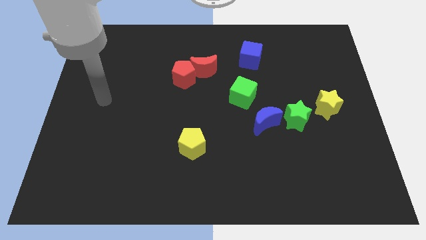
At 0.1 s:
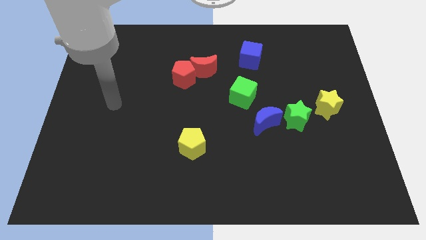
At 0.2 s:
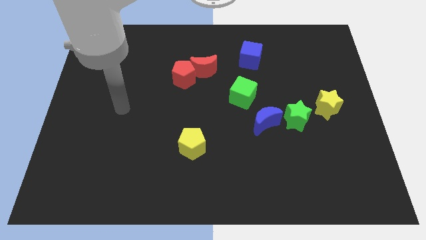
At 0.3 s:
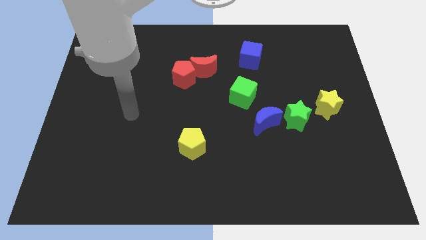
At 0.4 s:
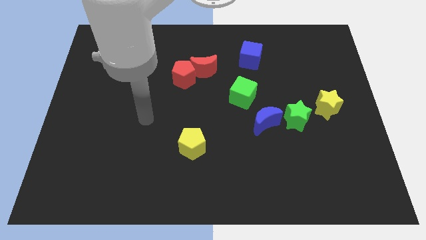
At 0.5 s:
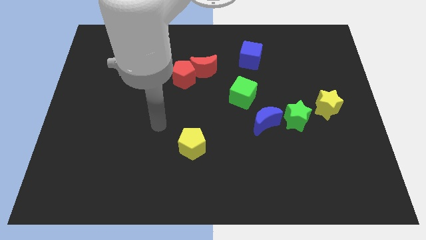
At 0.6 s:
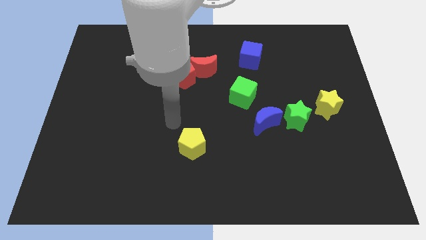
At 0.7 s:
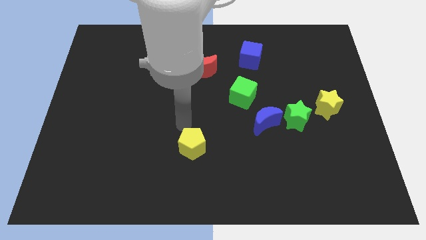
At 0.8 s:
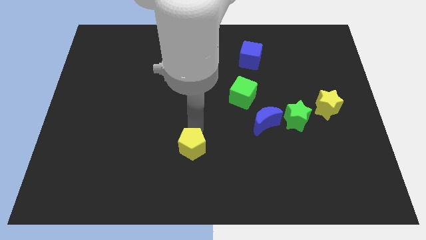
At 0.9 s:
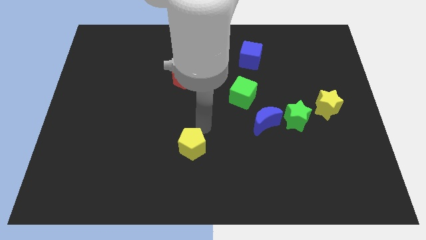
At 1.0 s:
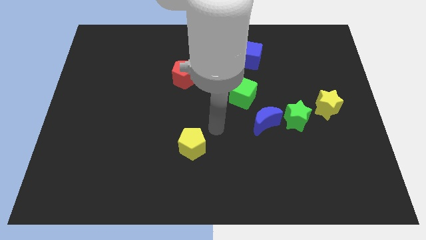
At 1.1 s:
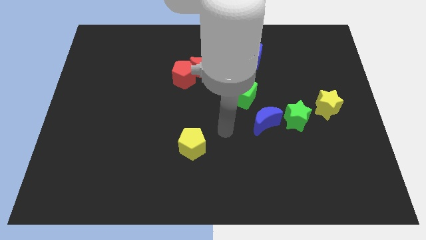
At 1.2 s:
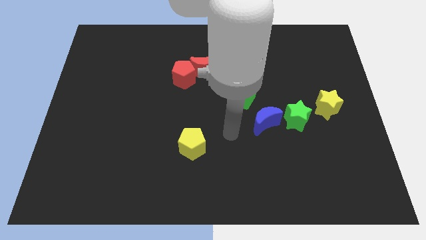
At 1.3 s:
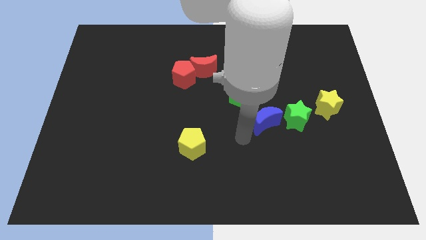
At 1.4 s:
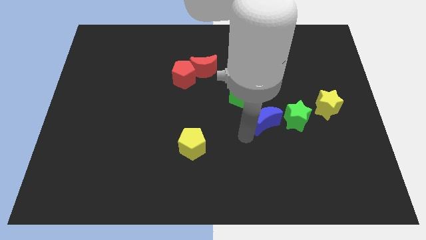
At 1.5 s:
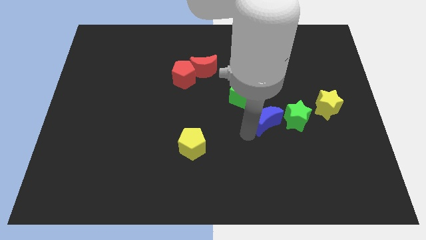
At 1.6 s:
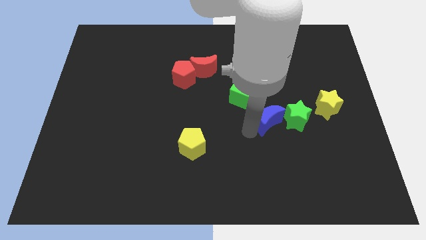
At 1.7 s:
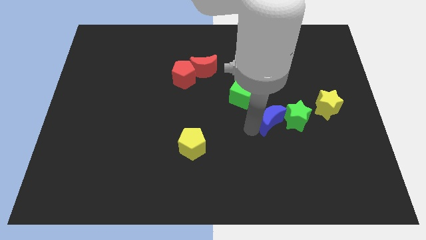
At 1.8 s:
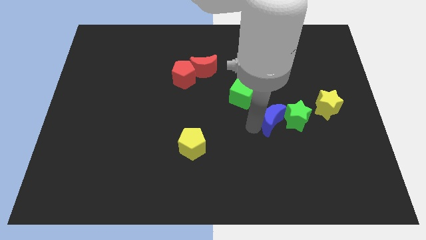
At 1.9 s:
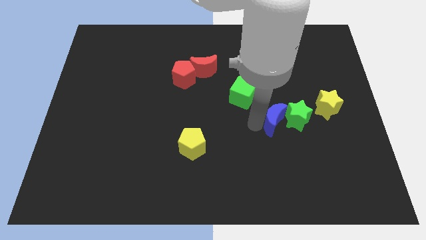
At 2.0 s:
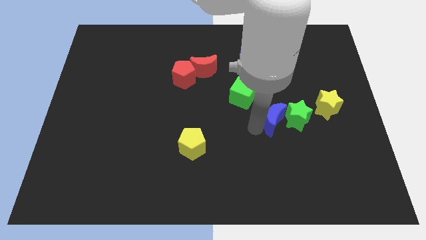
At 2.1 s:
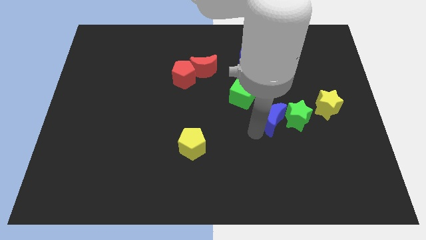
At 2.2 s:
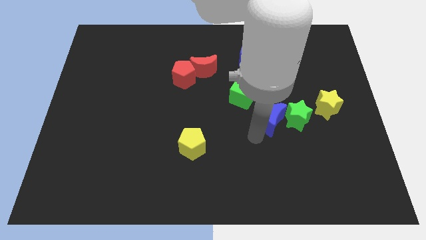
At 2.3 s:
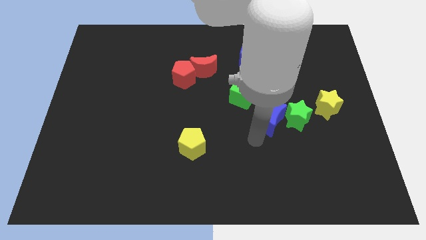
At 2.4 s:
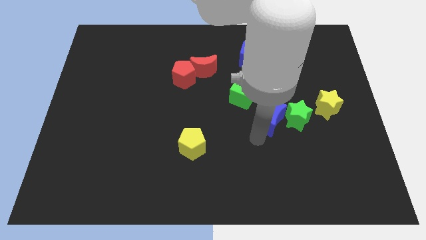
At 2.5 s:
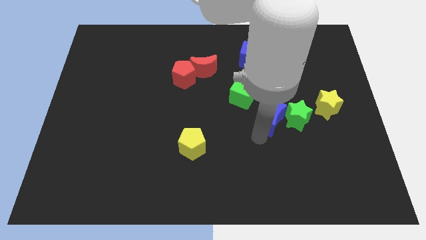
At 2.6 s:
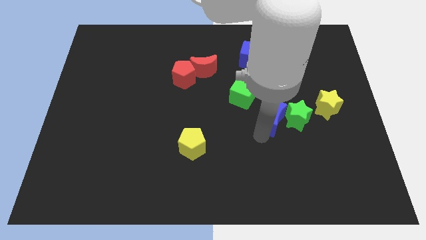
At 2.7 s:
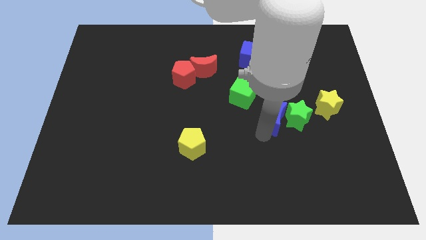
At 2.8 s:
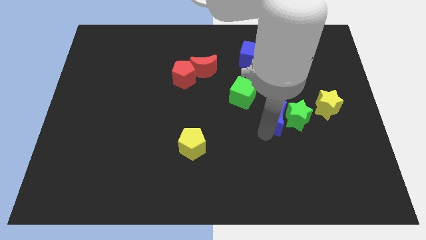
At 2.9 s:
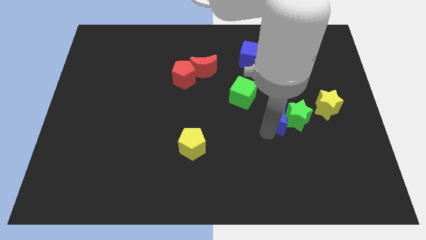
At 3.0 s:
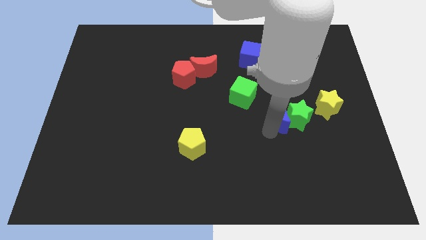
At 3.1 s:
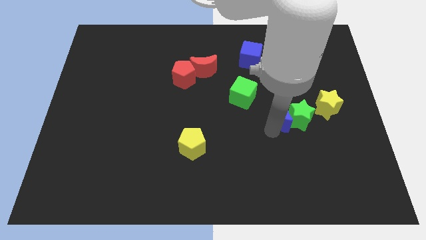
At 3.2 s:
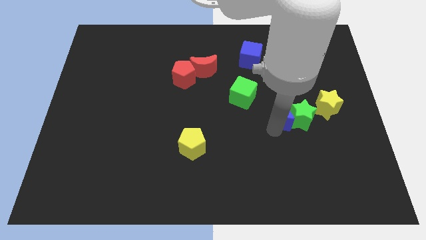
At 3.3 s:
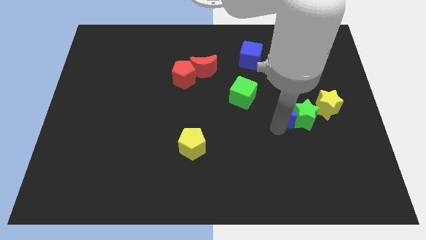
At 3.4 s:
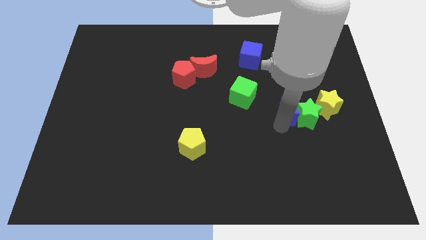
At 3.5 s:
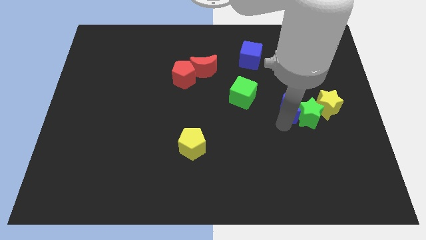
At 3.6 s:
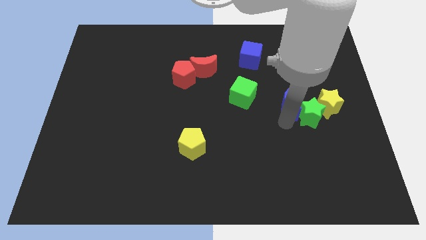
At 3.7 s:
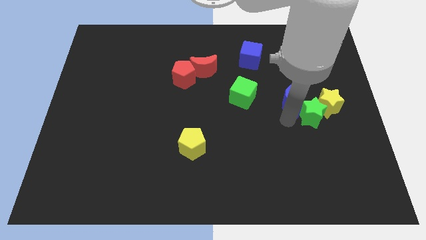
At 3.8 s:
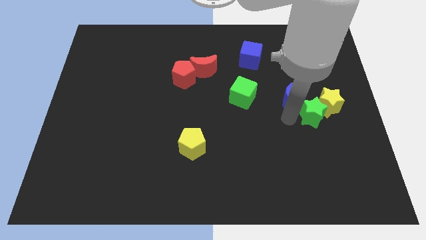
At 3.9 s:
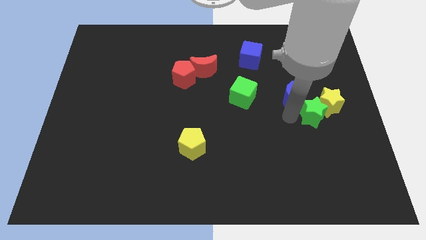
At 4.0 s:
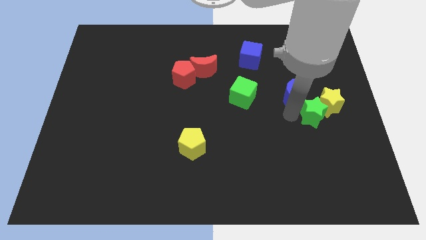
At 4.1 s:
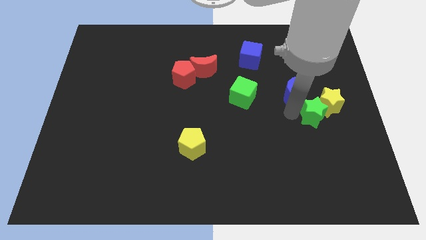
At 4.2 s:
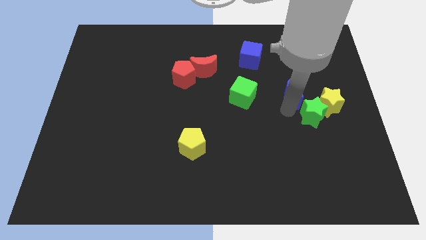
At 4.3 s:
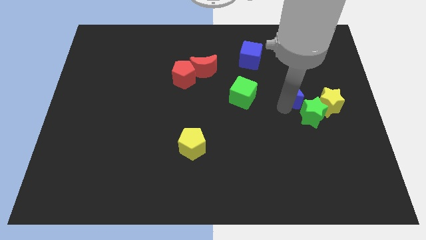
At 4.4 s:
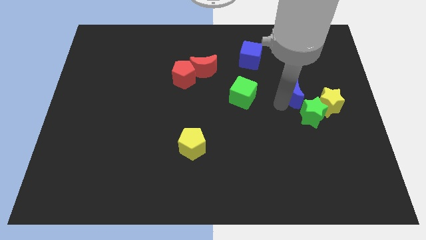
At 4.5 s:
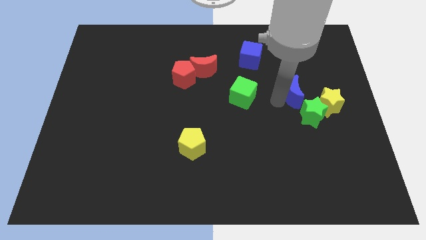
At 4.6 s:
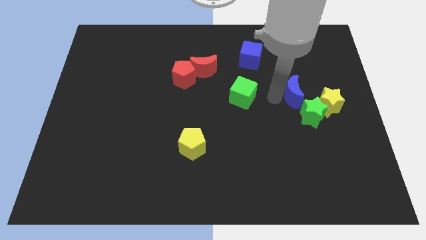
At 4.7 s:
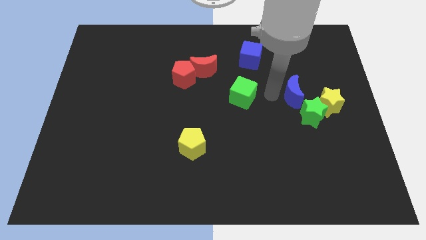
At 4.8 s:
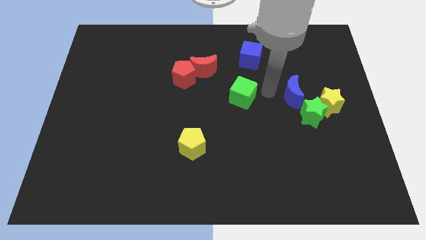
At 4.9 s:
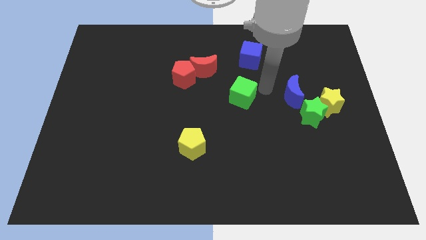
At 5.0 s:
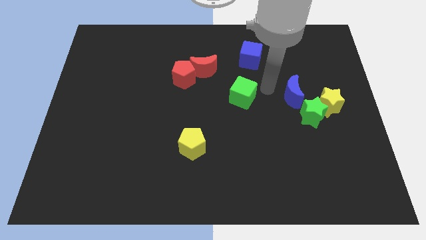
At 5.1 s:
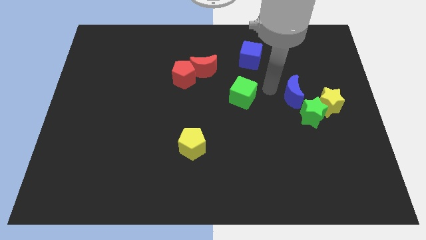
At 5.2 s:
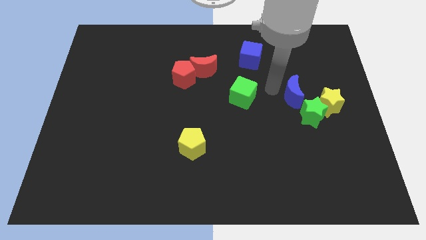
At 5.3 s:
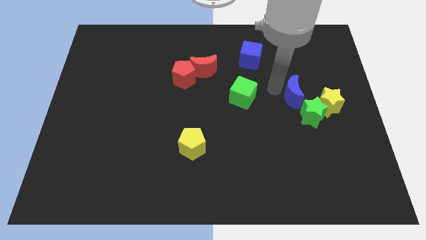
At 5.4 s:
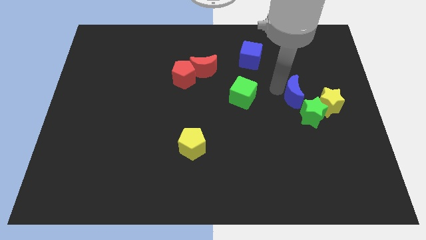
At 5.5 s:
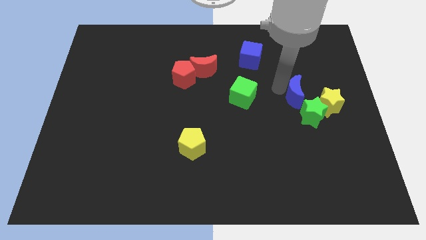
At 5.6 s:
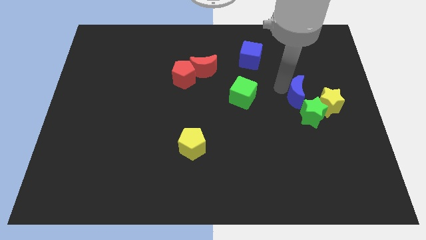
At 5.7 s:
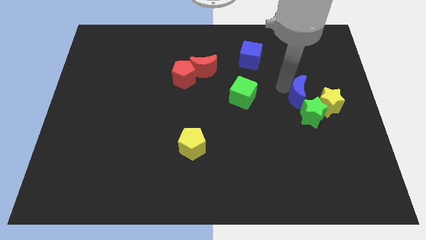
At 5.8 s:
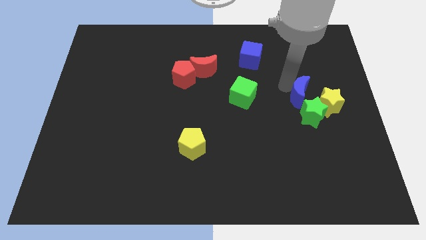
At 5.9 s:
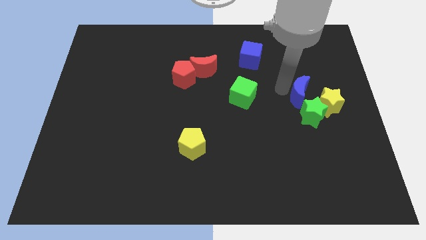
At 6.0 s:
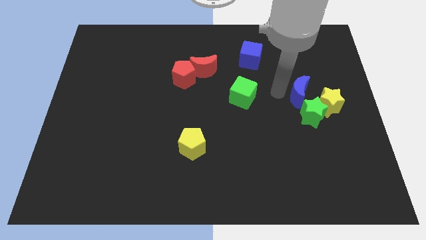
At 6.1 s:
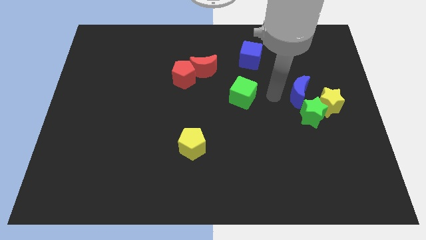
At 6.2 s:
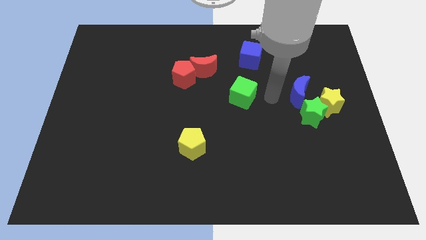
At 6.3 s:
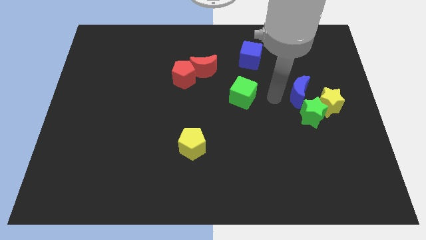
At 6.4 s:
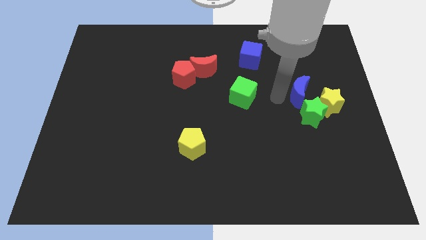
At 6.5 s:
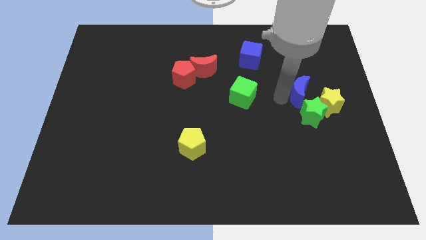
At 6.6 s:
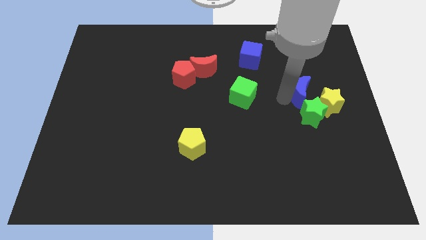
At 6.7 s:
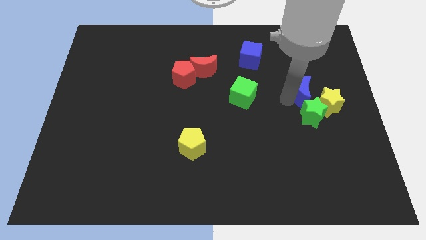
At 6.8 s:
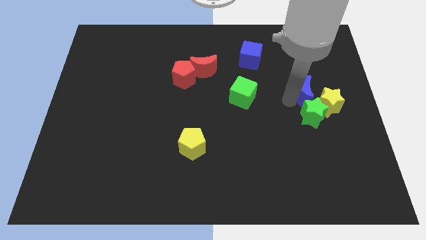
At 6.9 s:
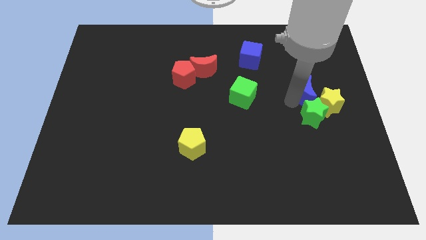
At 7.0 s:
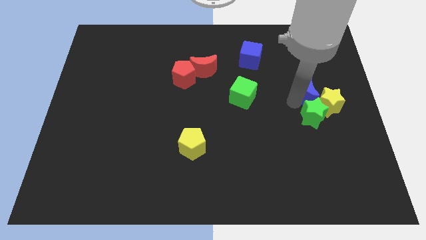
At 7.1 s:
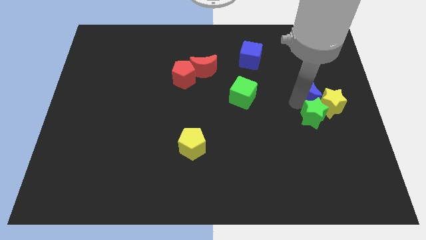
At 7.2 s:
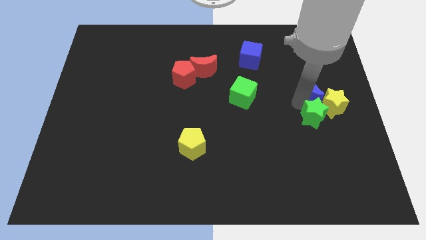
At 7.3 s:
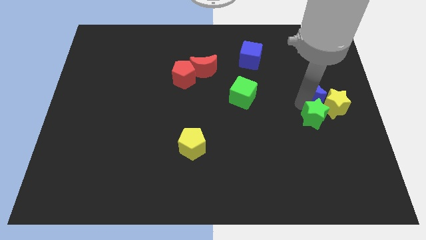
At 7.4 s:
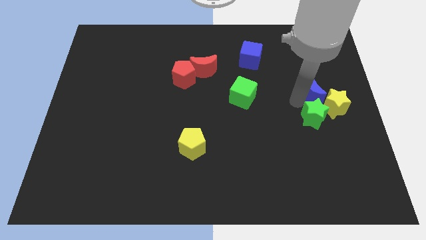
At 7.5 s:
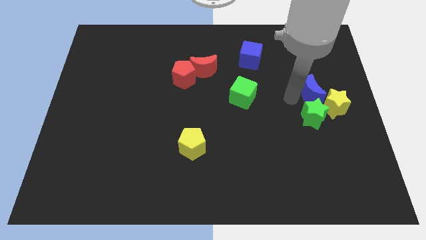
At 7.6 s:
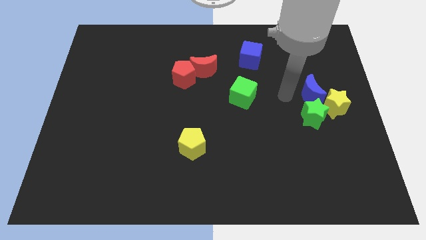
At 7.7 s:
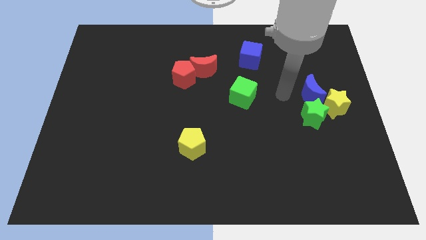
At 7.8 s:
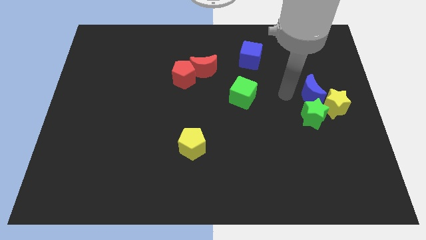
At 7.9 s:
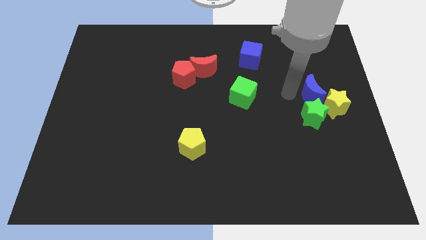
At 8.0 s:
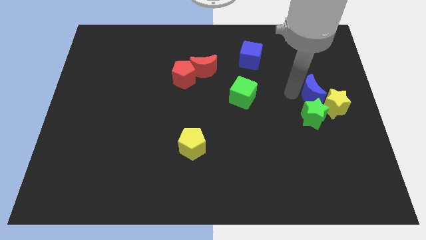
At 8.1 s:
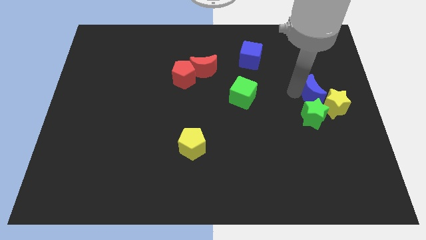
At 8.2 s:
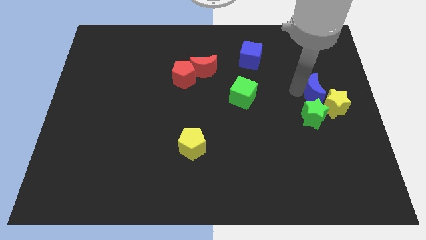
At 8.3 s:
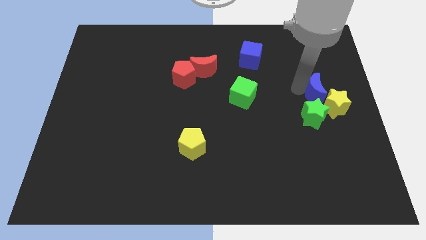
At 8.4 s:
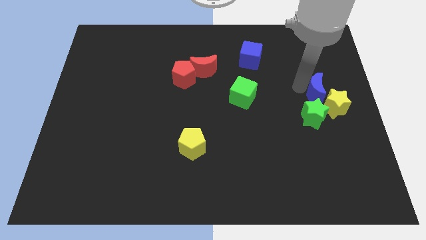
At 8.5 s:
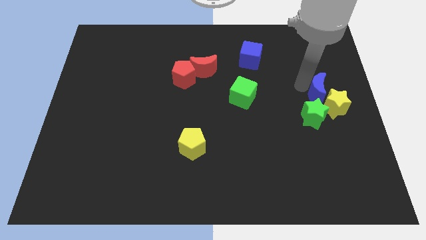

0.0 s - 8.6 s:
push the blue moon to the center right
